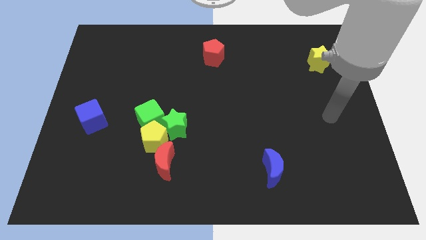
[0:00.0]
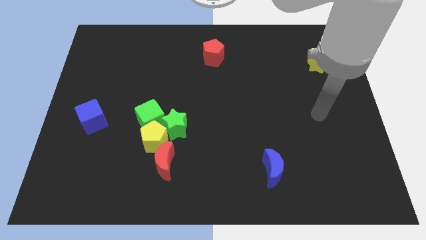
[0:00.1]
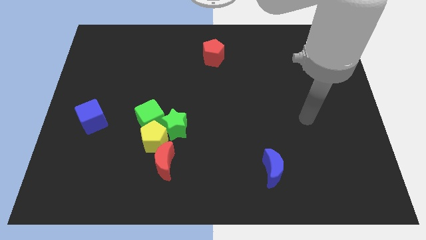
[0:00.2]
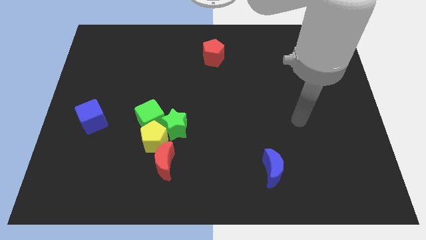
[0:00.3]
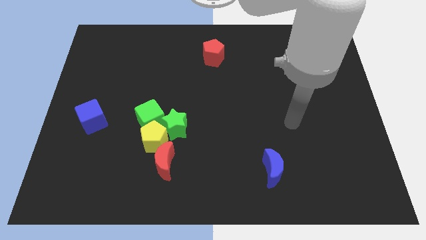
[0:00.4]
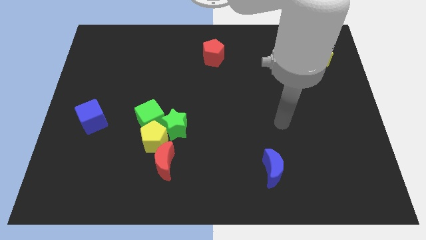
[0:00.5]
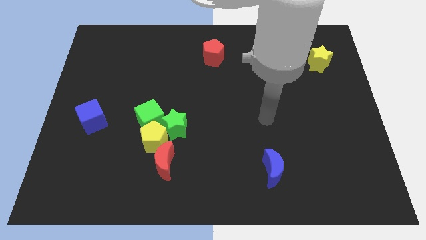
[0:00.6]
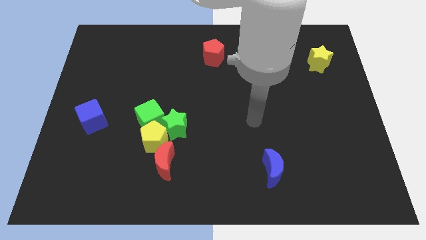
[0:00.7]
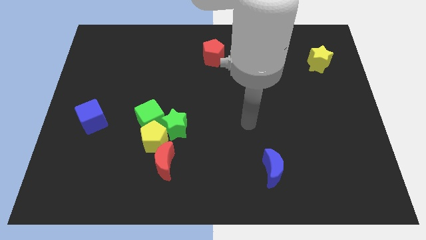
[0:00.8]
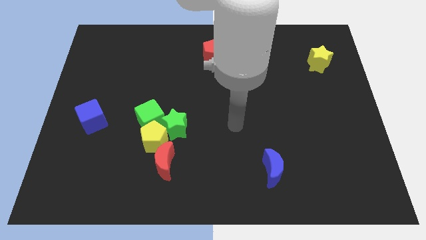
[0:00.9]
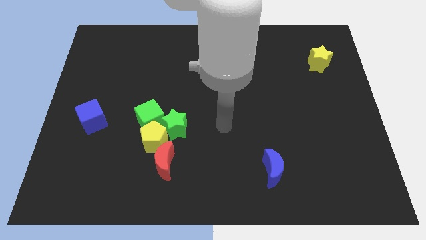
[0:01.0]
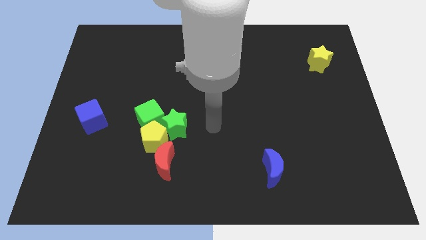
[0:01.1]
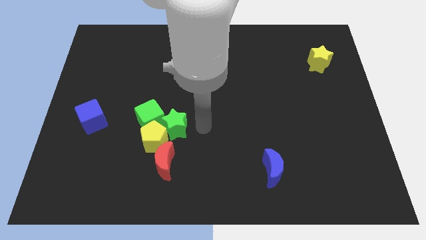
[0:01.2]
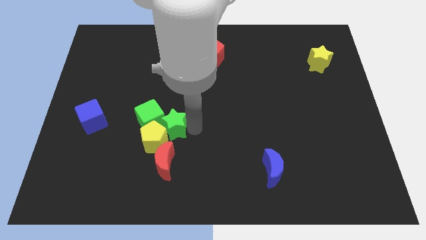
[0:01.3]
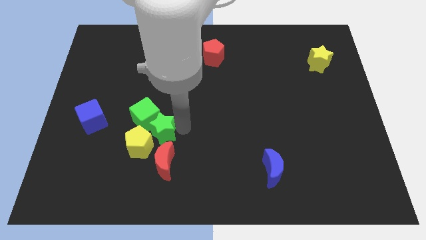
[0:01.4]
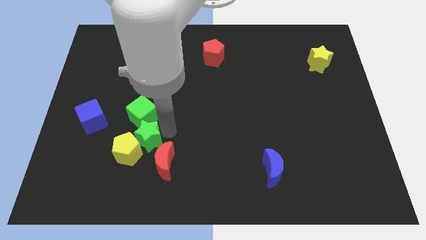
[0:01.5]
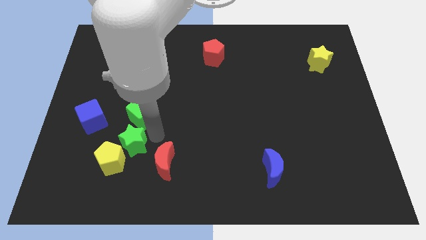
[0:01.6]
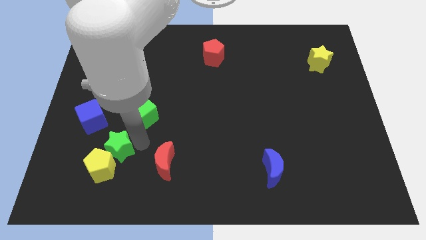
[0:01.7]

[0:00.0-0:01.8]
move the yellow pentagon away from the green star, green cube, and red moon

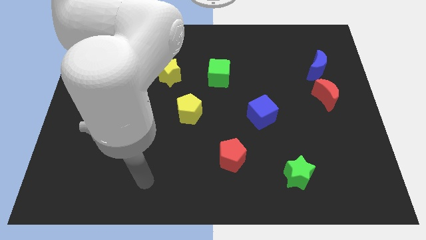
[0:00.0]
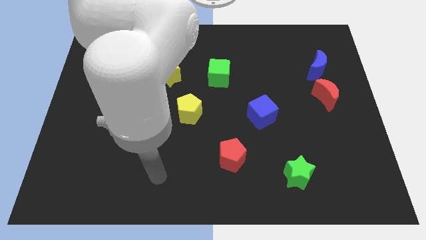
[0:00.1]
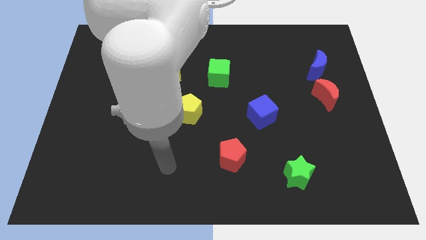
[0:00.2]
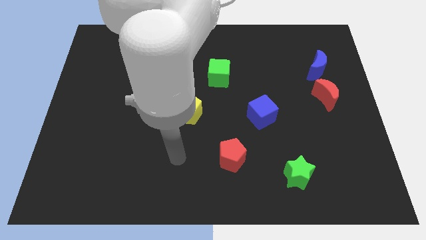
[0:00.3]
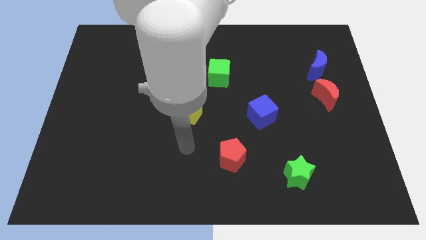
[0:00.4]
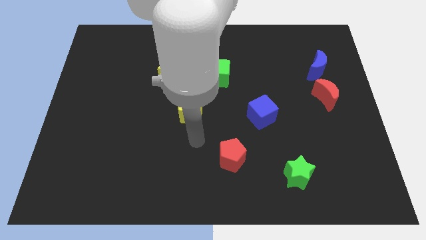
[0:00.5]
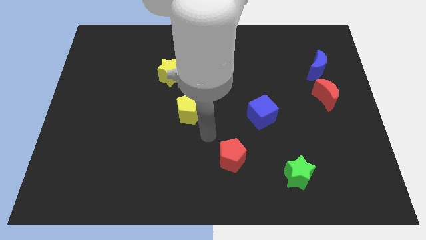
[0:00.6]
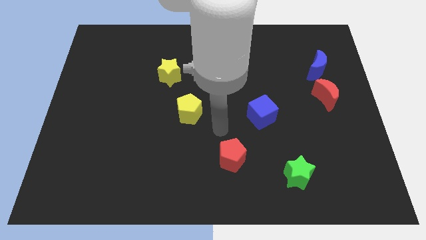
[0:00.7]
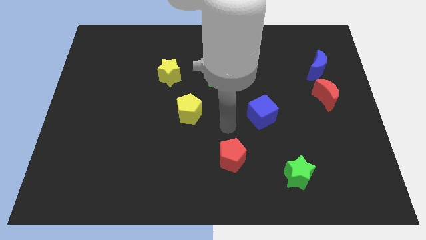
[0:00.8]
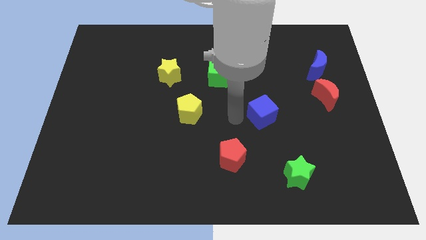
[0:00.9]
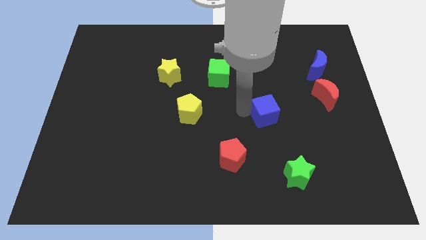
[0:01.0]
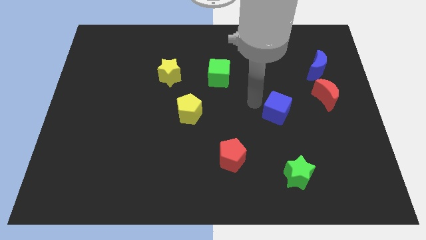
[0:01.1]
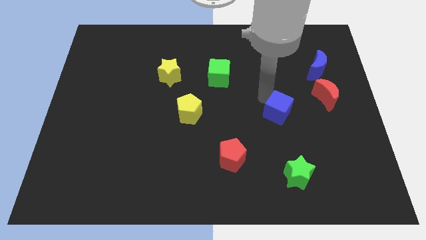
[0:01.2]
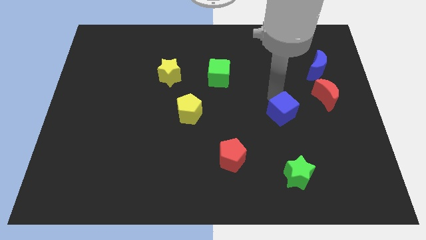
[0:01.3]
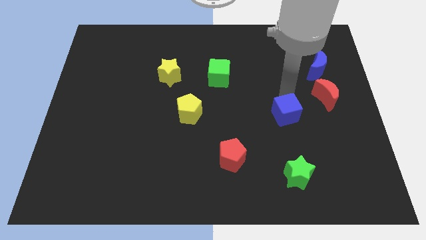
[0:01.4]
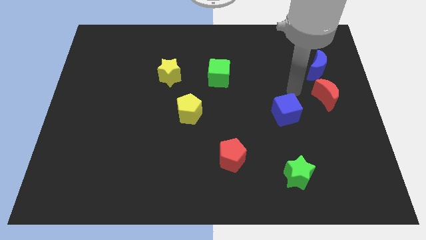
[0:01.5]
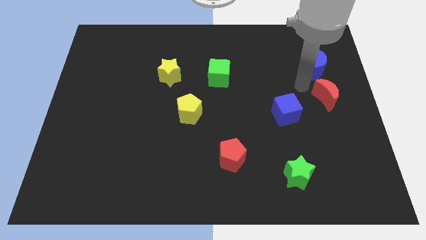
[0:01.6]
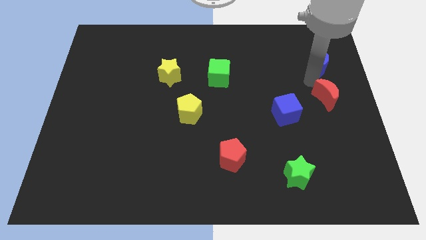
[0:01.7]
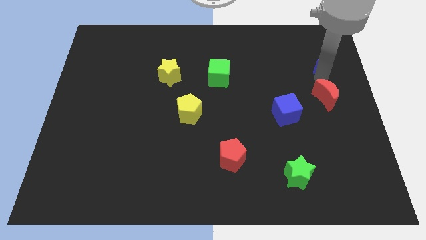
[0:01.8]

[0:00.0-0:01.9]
pull the red moon apart from the blue moon

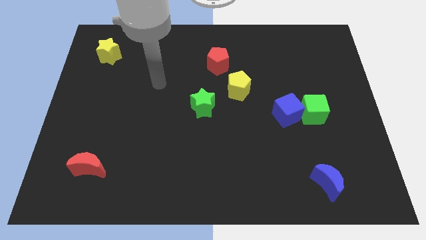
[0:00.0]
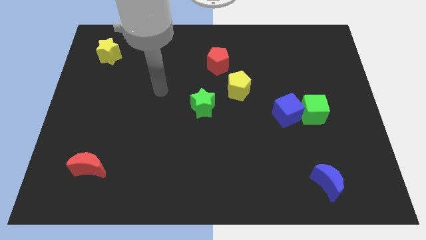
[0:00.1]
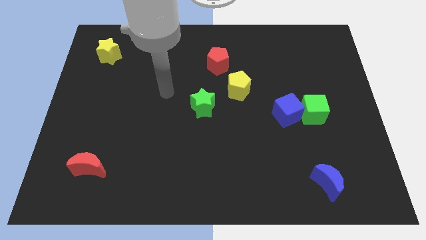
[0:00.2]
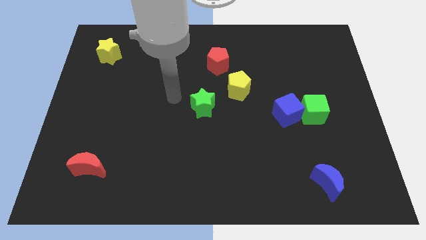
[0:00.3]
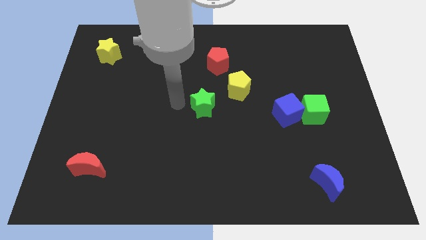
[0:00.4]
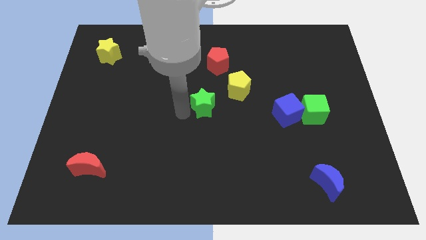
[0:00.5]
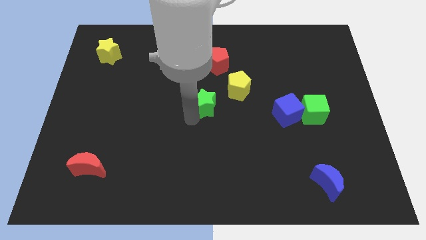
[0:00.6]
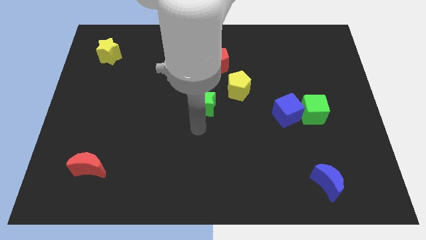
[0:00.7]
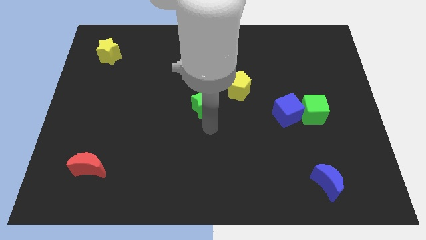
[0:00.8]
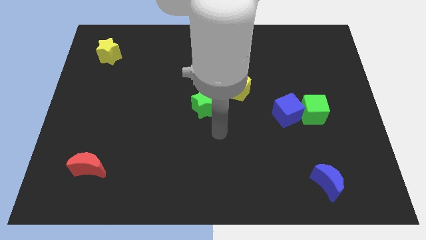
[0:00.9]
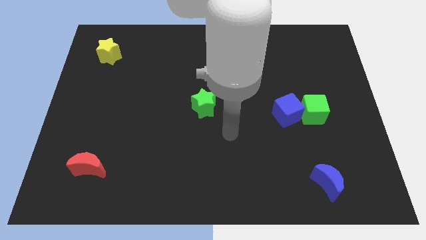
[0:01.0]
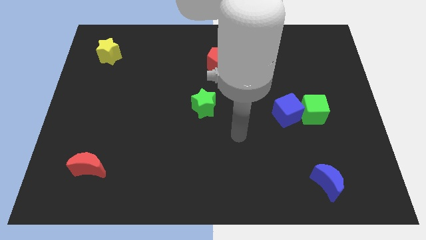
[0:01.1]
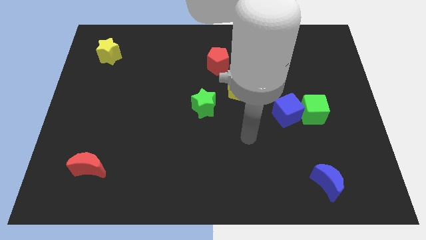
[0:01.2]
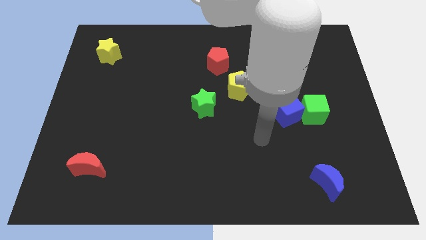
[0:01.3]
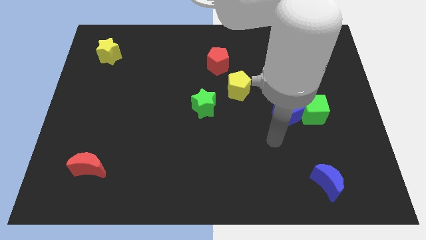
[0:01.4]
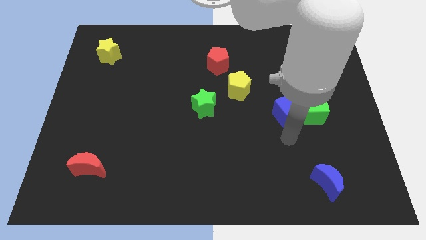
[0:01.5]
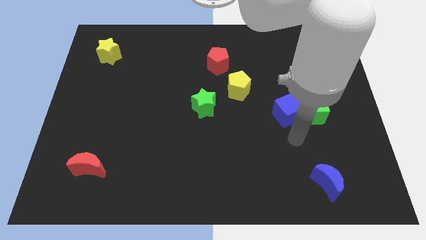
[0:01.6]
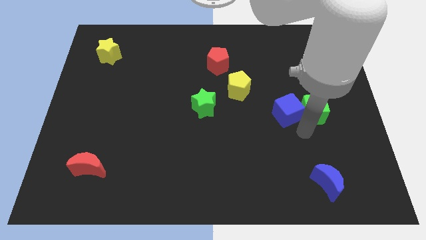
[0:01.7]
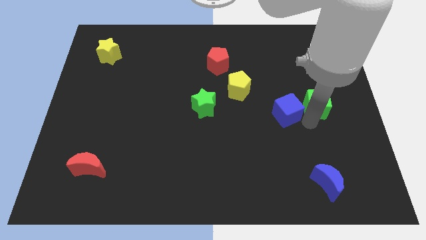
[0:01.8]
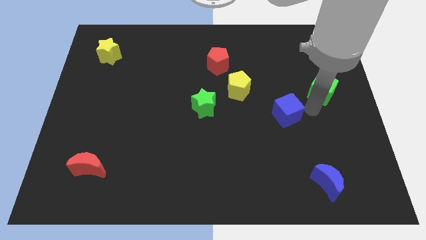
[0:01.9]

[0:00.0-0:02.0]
separate the blue cube from the green cube

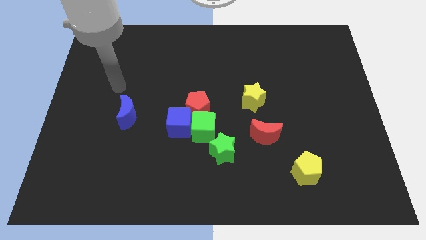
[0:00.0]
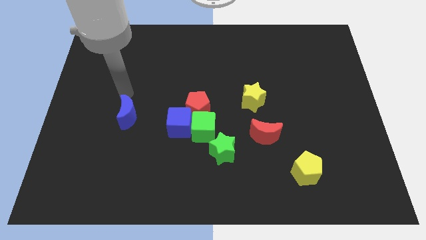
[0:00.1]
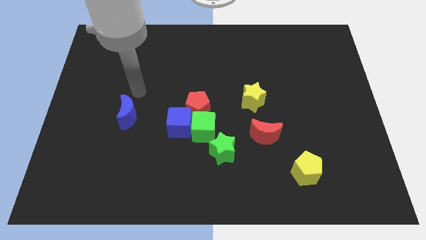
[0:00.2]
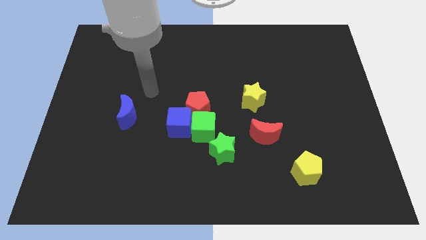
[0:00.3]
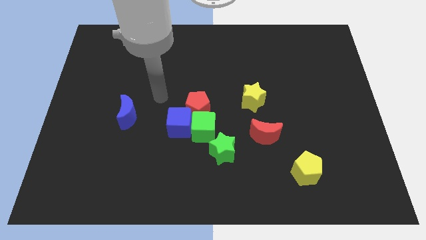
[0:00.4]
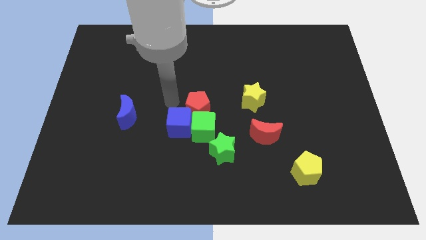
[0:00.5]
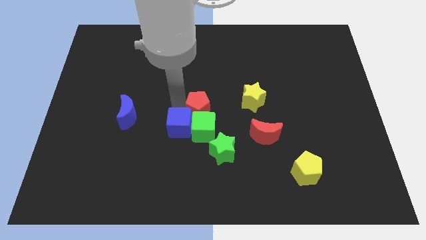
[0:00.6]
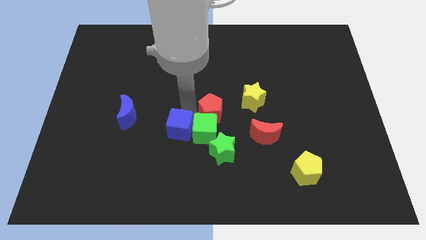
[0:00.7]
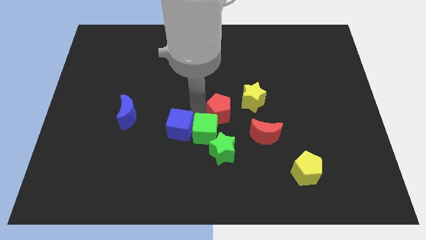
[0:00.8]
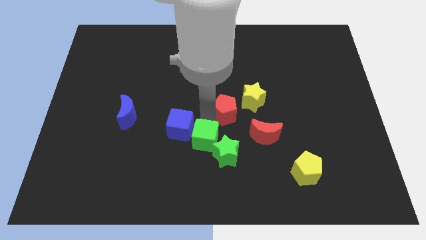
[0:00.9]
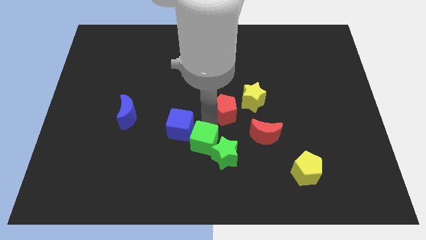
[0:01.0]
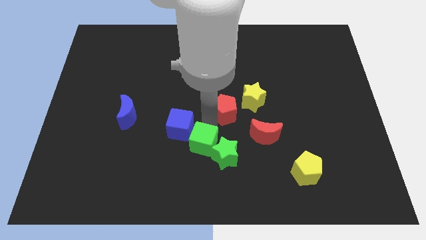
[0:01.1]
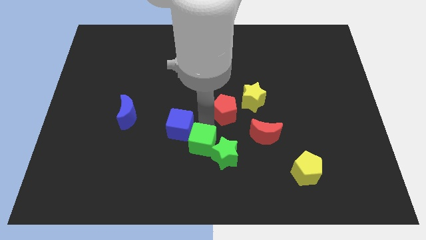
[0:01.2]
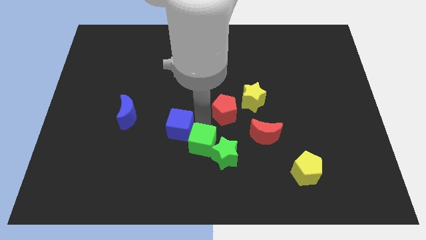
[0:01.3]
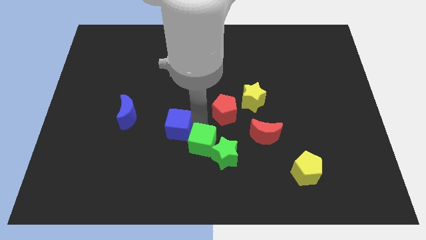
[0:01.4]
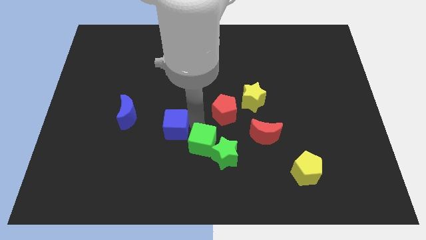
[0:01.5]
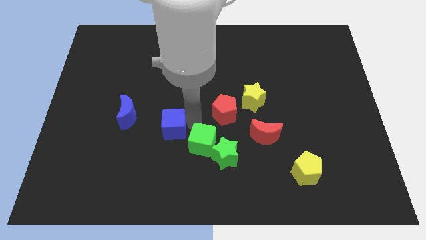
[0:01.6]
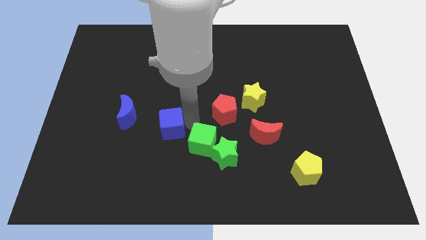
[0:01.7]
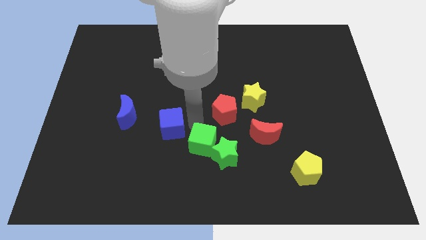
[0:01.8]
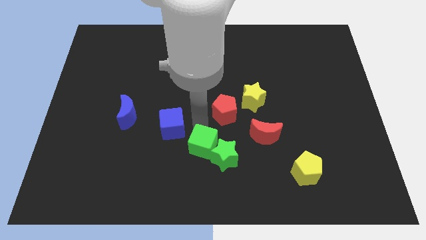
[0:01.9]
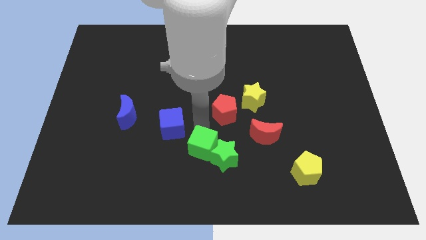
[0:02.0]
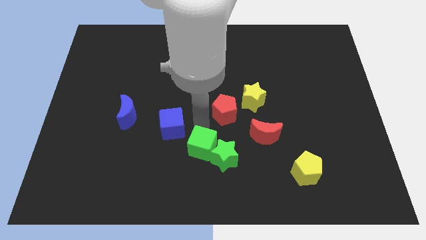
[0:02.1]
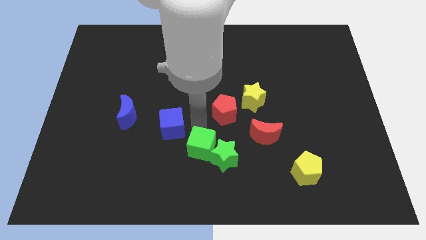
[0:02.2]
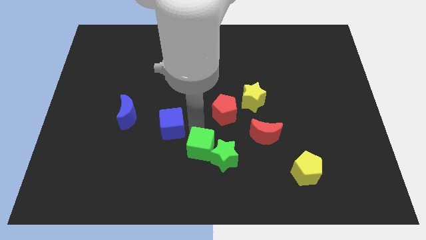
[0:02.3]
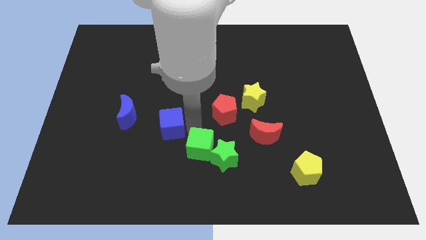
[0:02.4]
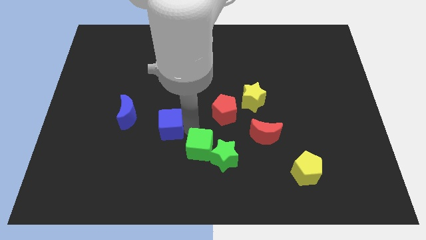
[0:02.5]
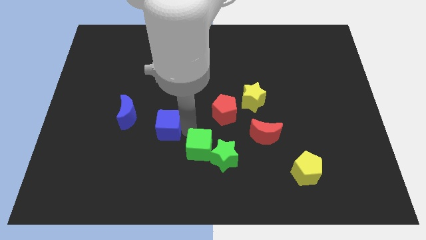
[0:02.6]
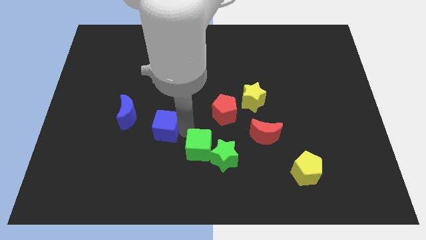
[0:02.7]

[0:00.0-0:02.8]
separate the blue cube from the green cube and red pentagon

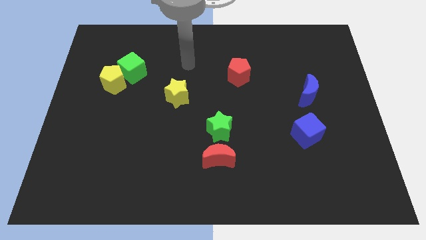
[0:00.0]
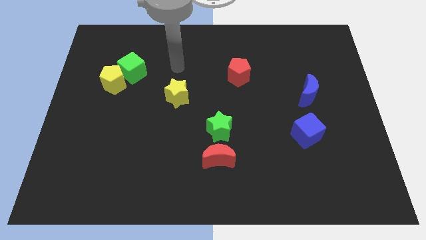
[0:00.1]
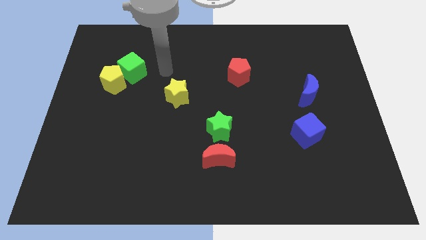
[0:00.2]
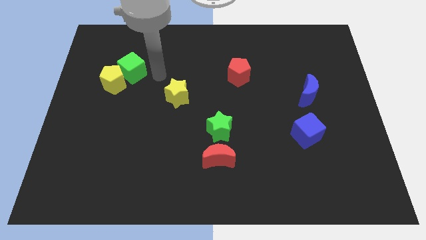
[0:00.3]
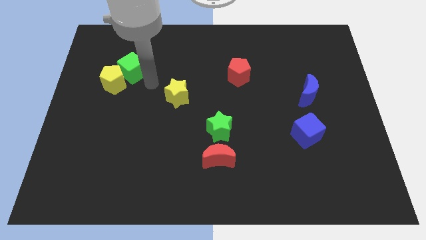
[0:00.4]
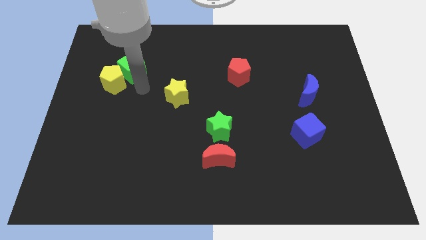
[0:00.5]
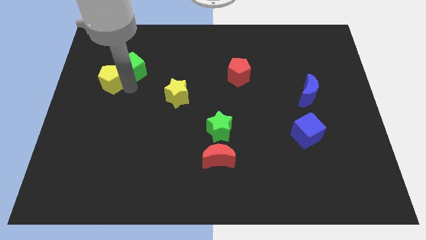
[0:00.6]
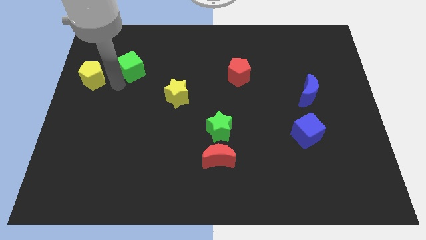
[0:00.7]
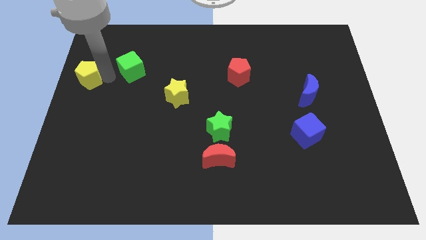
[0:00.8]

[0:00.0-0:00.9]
separate the green cube from the yellow pentagon
